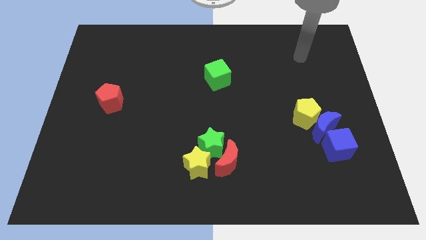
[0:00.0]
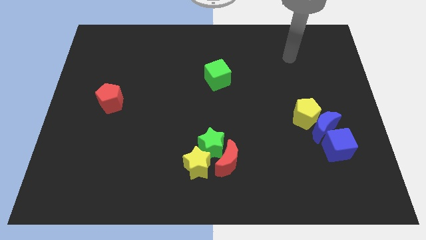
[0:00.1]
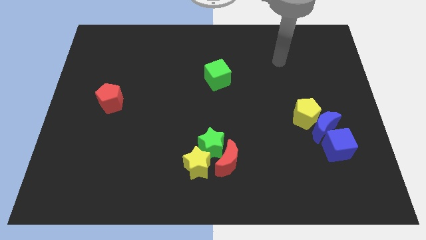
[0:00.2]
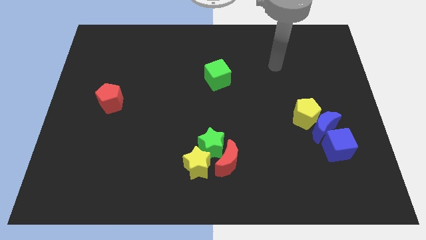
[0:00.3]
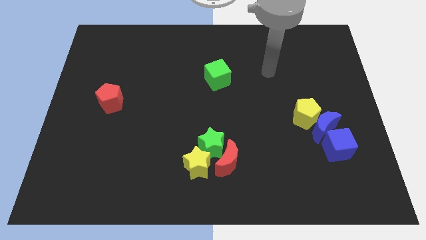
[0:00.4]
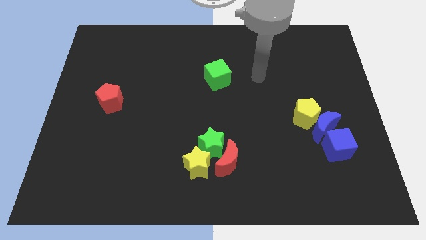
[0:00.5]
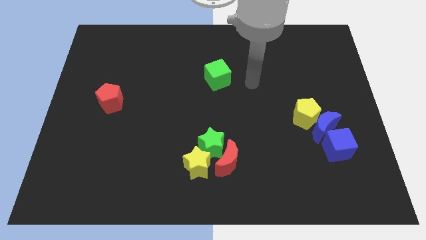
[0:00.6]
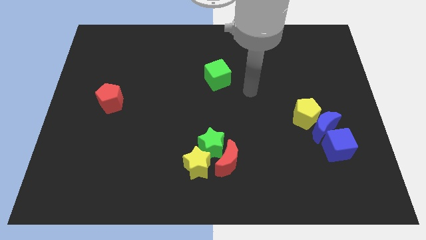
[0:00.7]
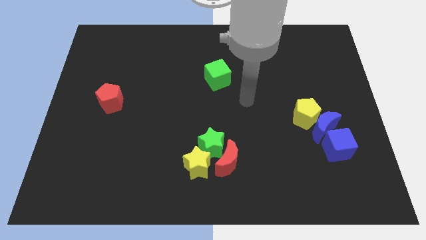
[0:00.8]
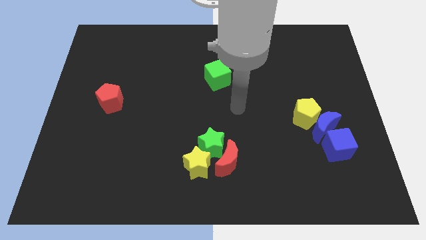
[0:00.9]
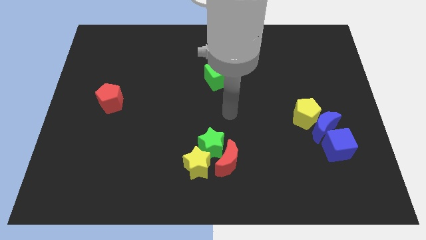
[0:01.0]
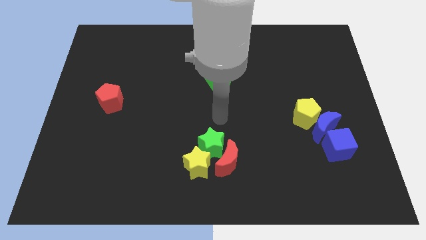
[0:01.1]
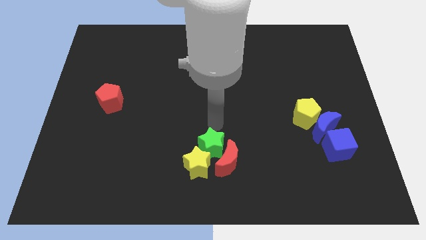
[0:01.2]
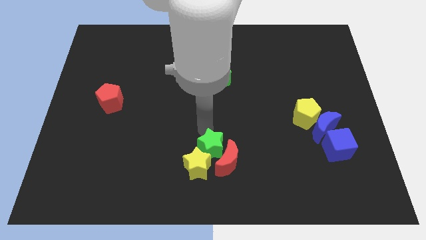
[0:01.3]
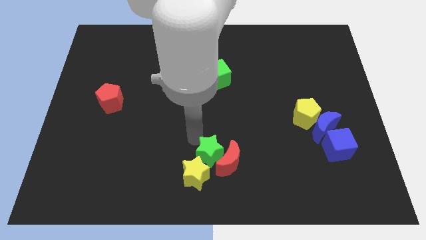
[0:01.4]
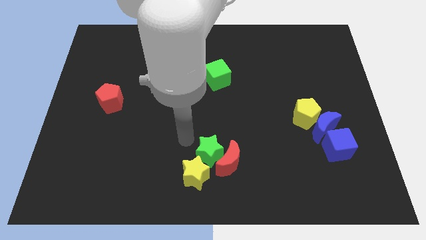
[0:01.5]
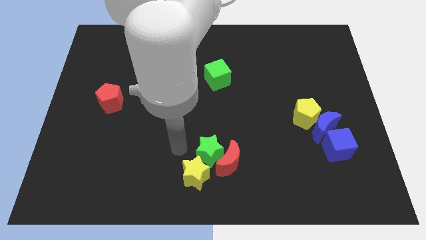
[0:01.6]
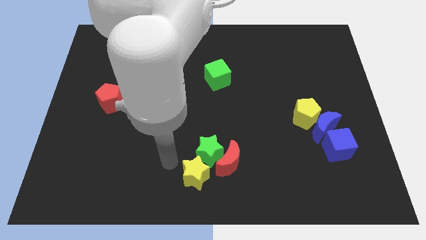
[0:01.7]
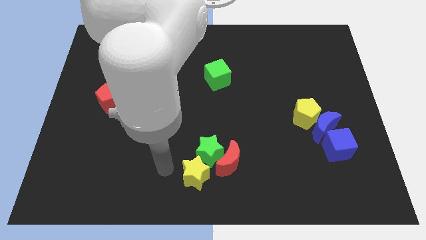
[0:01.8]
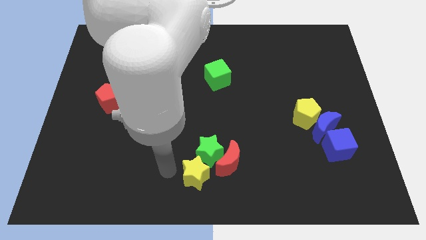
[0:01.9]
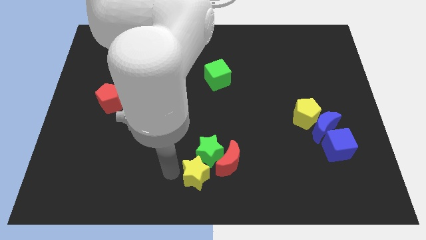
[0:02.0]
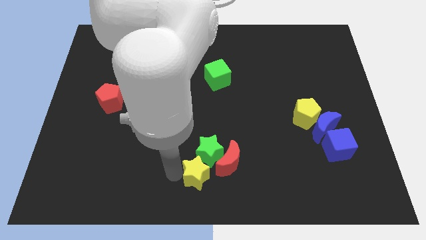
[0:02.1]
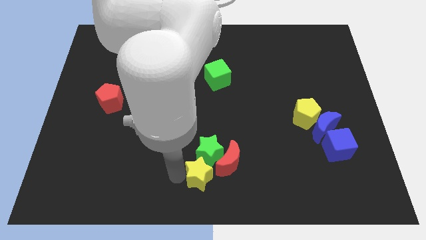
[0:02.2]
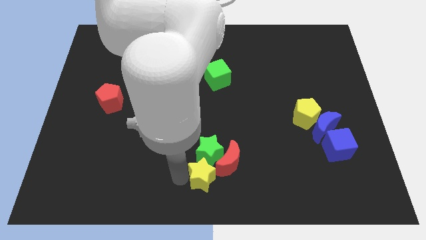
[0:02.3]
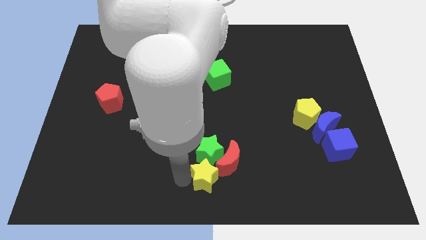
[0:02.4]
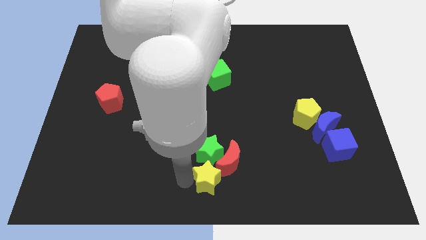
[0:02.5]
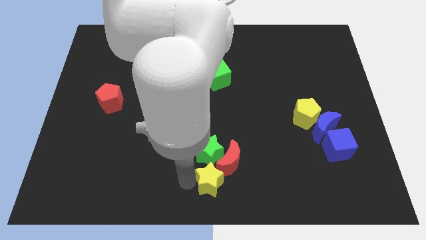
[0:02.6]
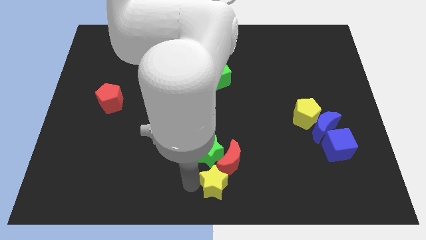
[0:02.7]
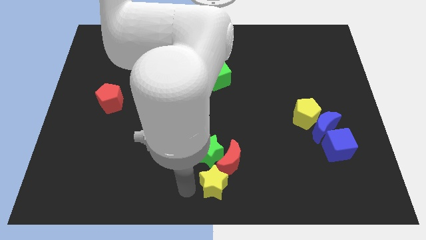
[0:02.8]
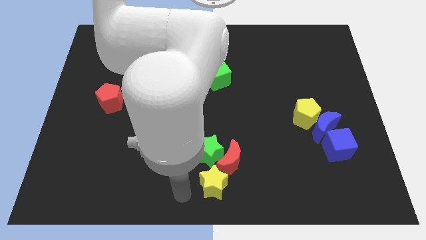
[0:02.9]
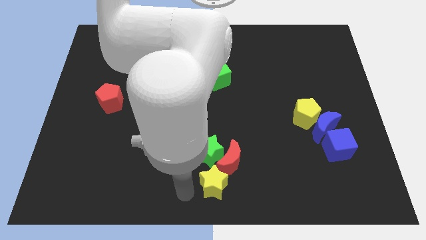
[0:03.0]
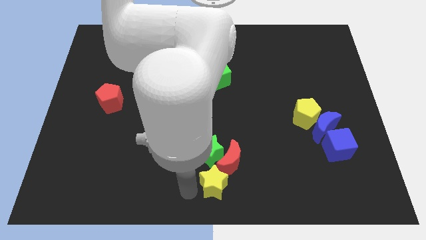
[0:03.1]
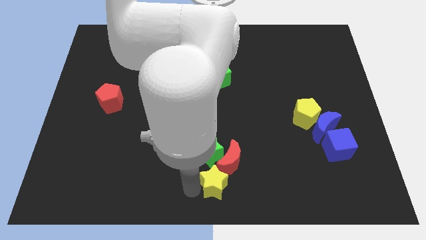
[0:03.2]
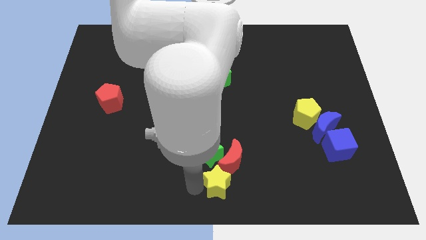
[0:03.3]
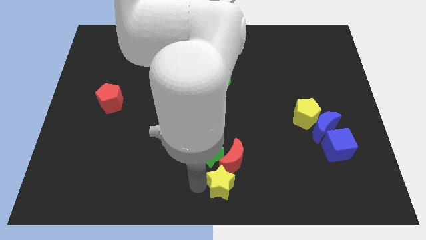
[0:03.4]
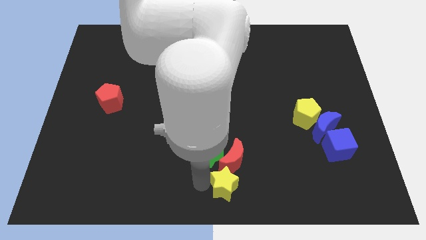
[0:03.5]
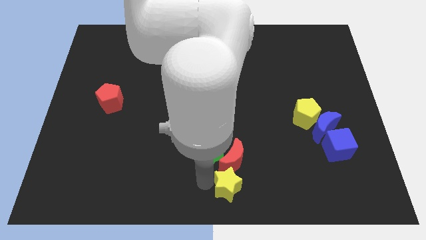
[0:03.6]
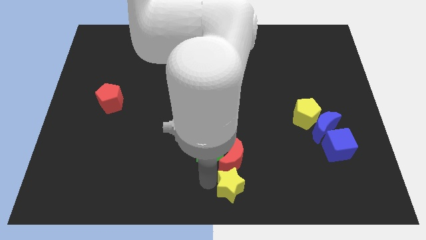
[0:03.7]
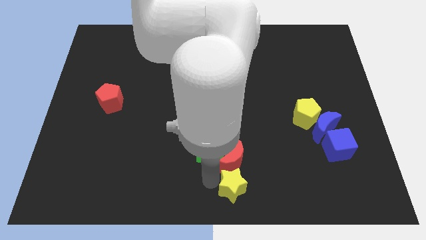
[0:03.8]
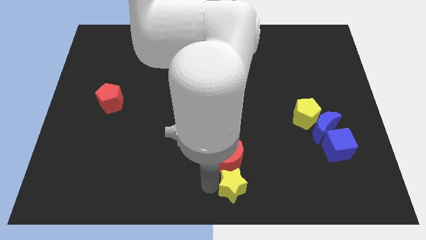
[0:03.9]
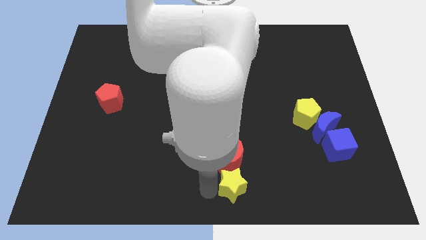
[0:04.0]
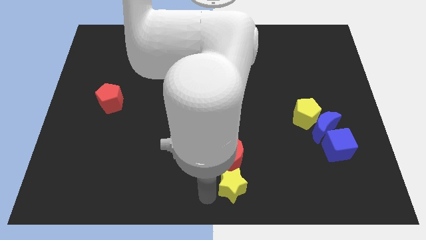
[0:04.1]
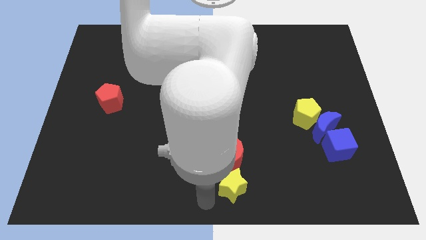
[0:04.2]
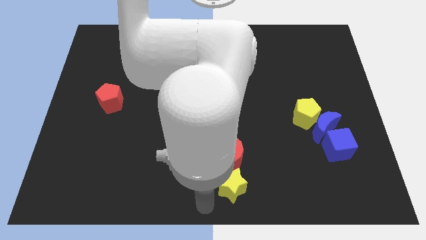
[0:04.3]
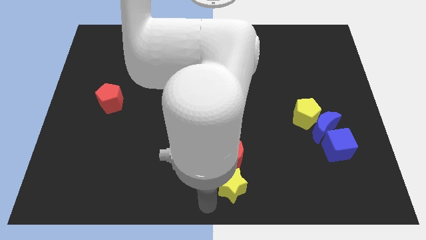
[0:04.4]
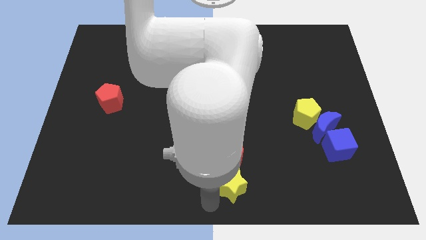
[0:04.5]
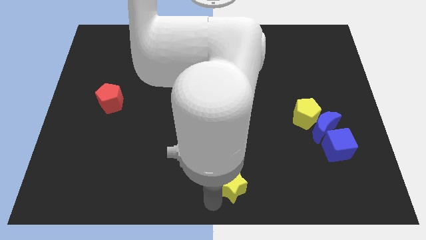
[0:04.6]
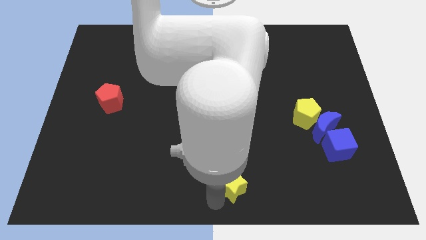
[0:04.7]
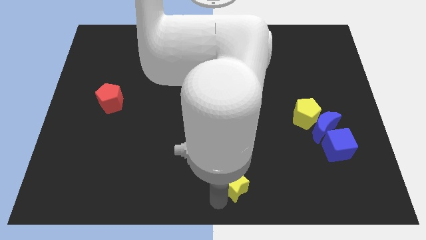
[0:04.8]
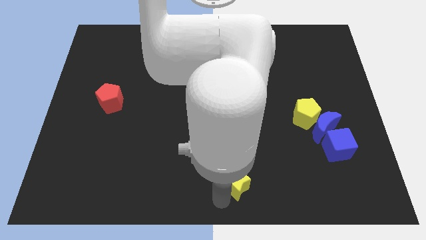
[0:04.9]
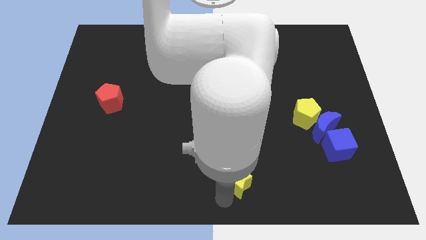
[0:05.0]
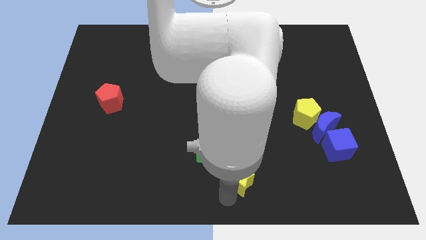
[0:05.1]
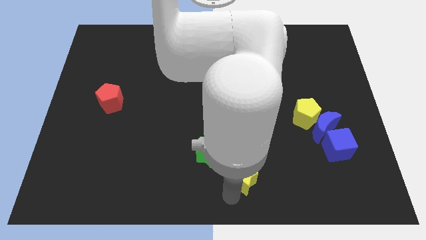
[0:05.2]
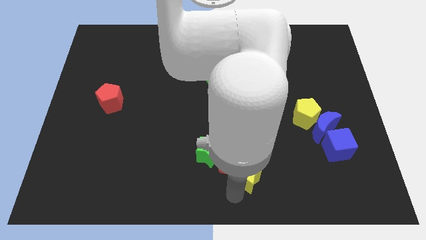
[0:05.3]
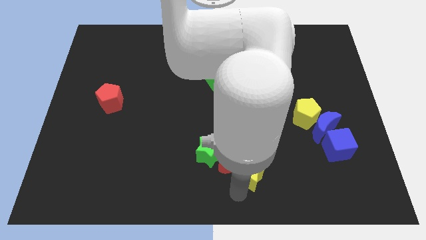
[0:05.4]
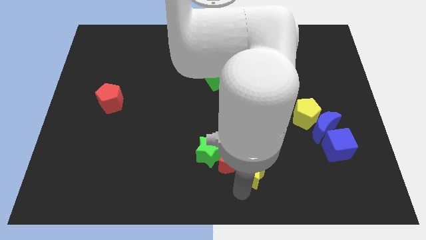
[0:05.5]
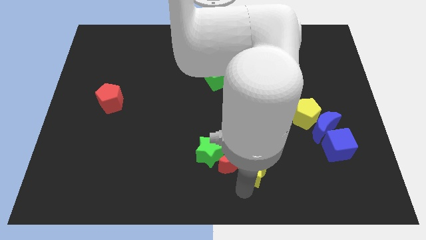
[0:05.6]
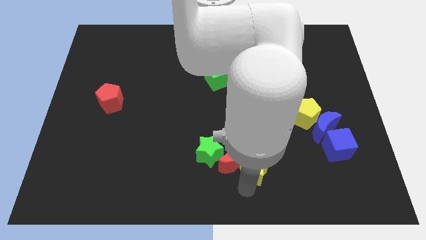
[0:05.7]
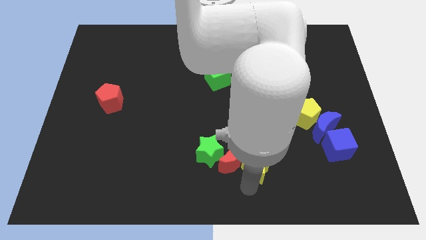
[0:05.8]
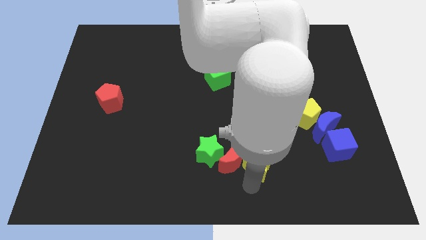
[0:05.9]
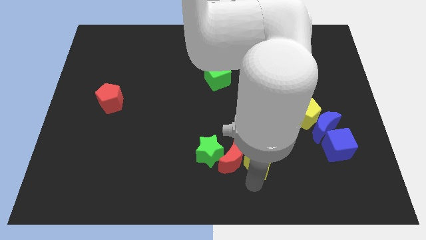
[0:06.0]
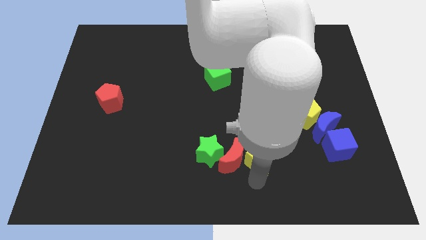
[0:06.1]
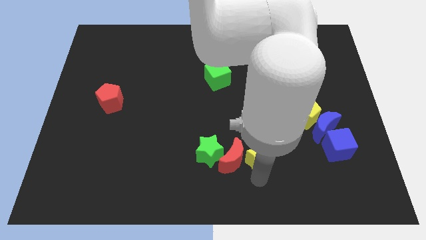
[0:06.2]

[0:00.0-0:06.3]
slightly push the yellow star diagonally upwards and right

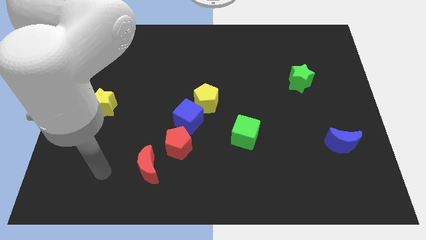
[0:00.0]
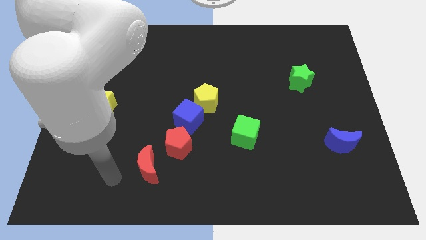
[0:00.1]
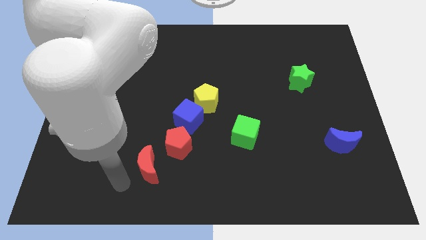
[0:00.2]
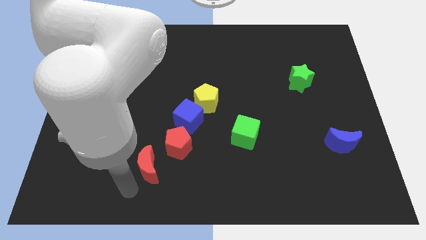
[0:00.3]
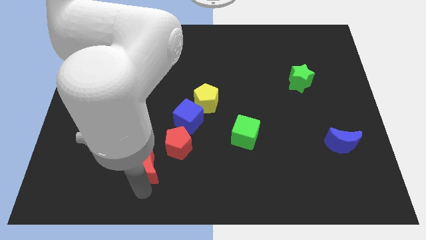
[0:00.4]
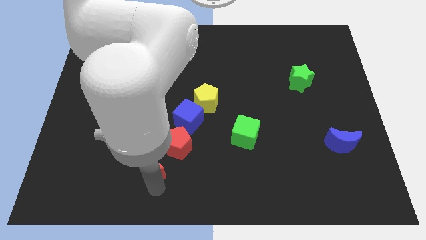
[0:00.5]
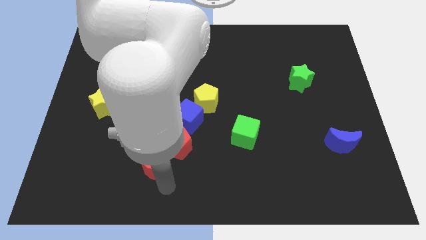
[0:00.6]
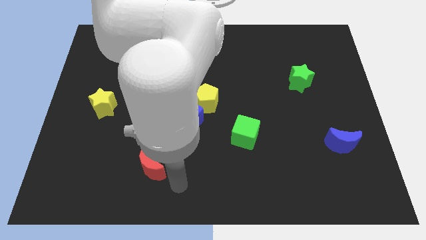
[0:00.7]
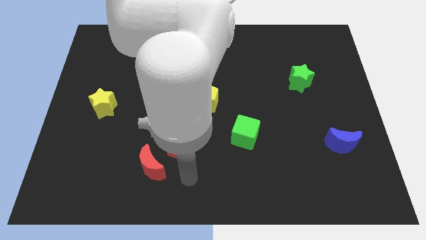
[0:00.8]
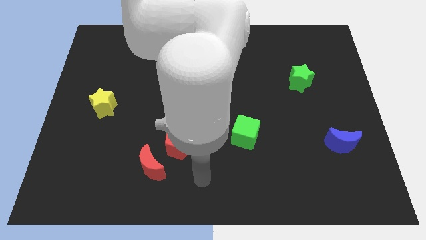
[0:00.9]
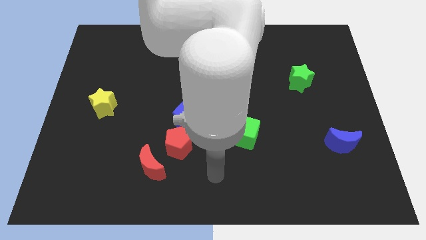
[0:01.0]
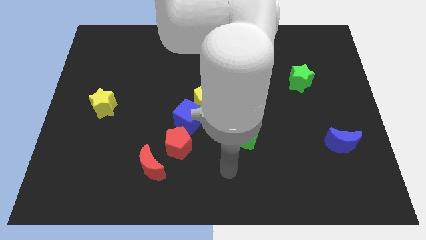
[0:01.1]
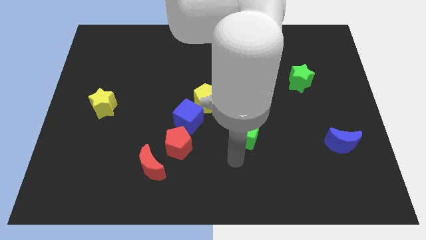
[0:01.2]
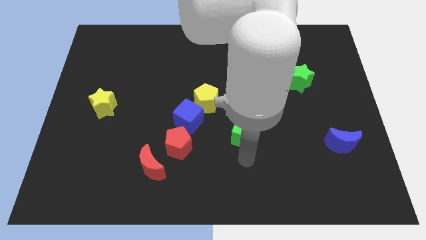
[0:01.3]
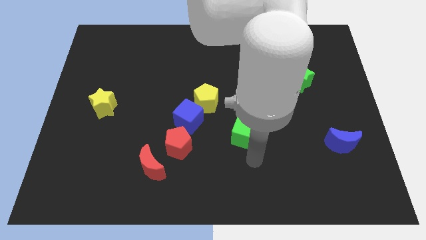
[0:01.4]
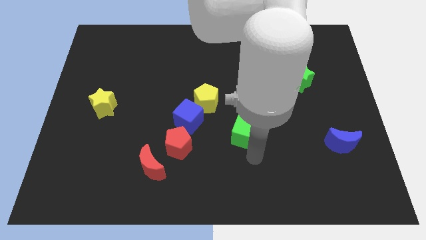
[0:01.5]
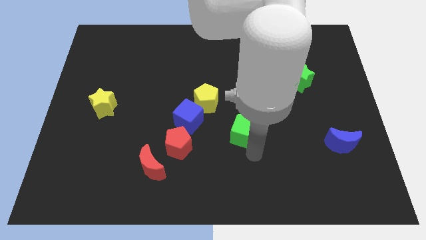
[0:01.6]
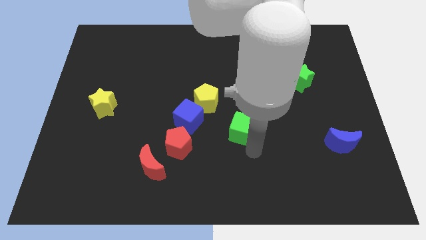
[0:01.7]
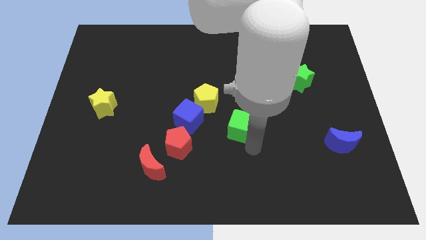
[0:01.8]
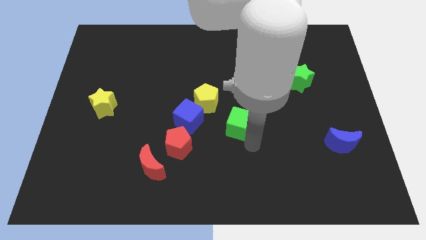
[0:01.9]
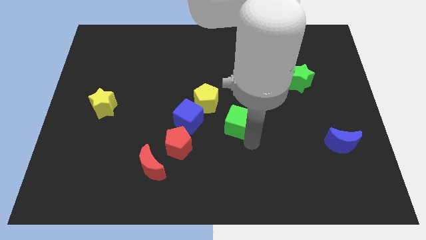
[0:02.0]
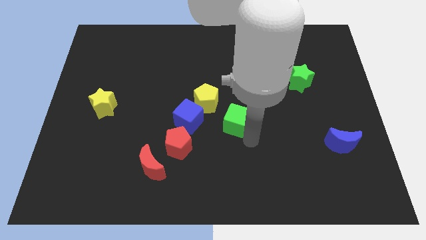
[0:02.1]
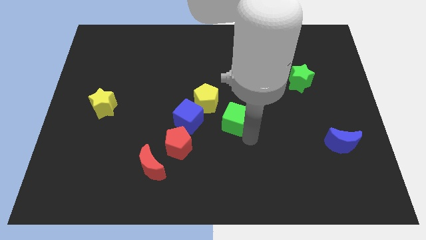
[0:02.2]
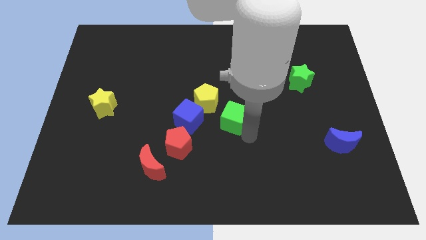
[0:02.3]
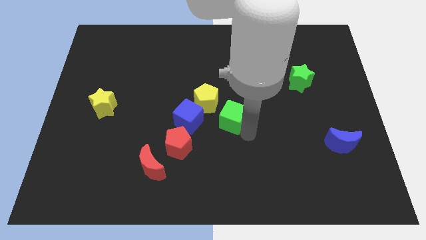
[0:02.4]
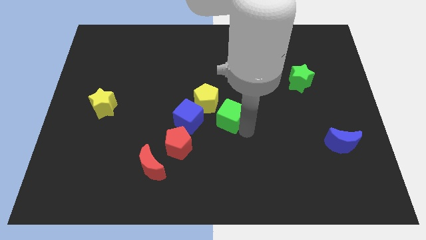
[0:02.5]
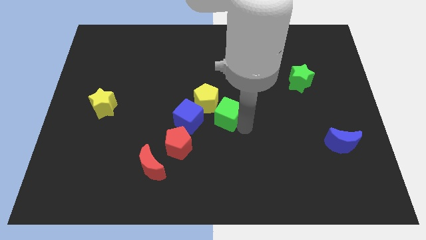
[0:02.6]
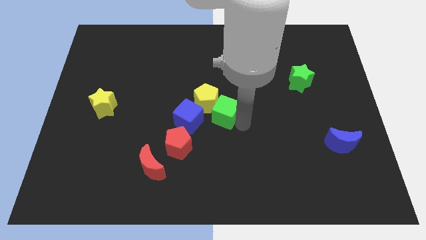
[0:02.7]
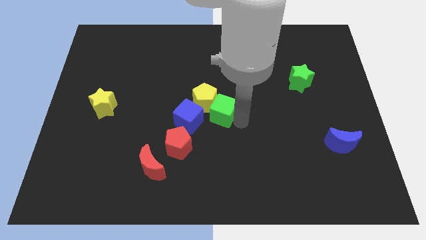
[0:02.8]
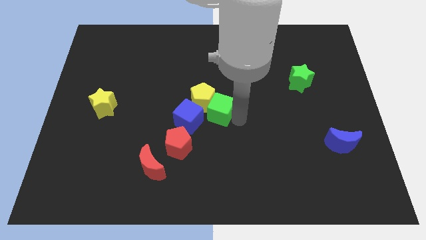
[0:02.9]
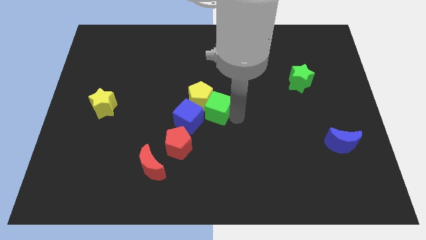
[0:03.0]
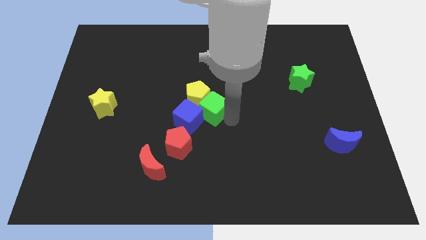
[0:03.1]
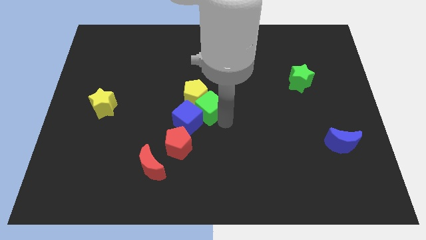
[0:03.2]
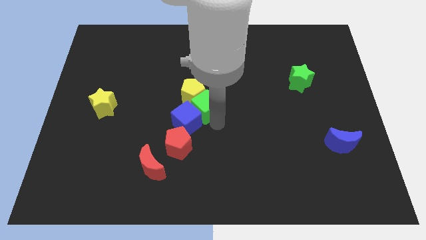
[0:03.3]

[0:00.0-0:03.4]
slide the green cube a bit to the left
